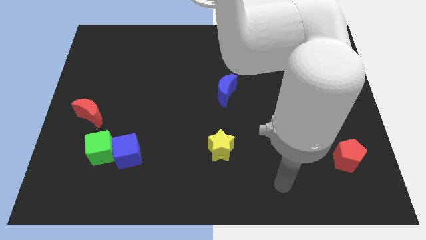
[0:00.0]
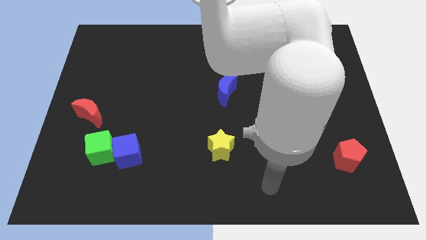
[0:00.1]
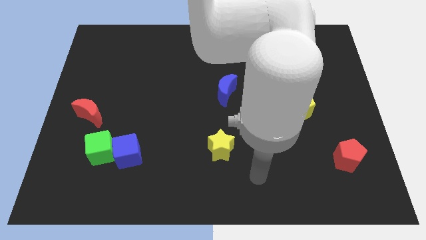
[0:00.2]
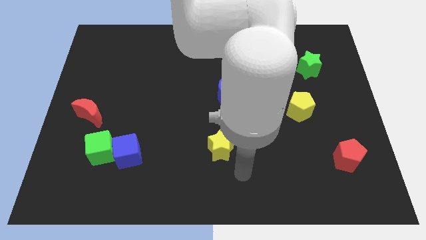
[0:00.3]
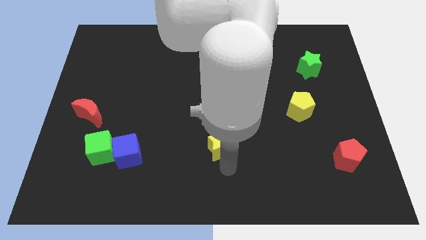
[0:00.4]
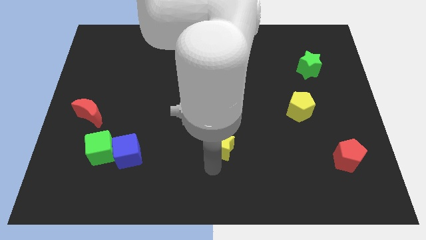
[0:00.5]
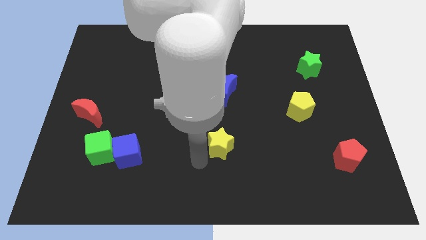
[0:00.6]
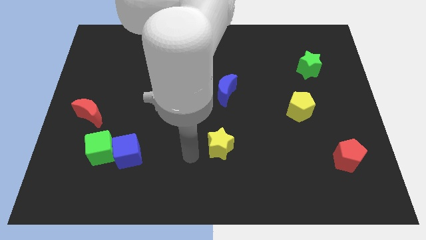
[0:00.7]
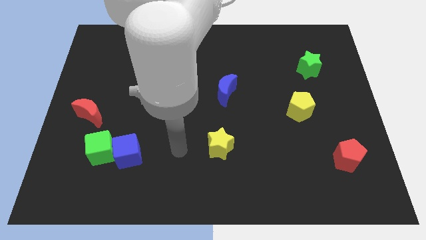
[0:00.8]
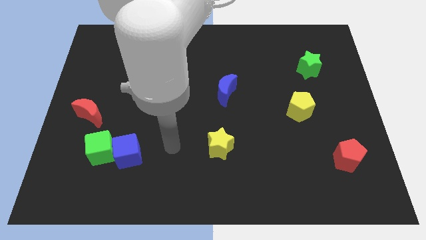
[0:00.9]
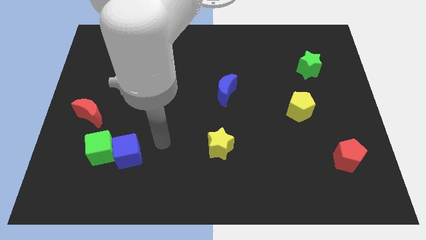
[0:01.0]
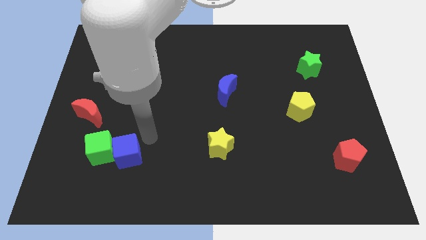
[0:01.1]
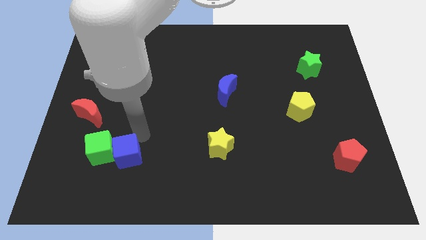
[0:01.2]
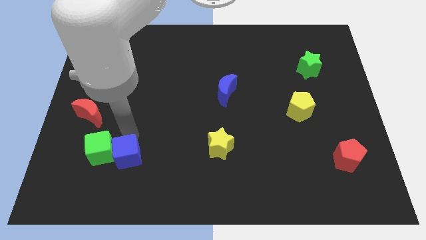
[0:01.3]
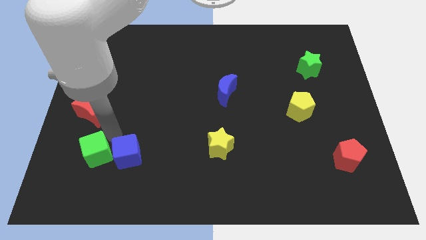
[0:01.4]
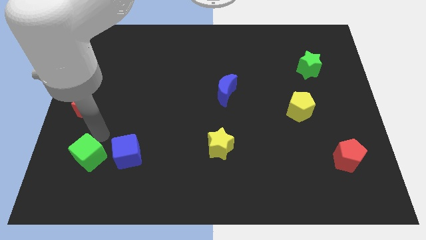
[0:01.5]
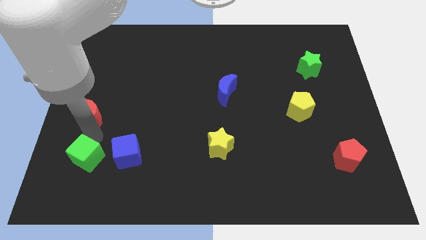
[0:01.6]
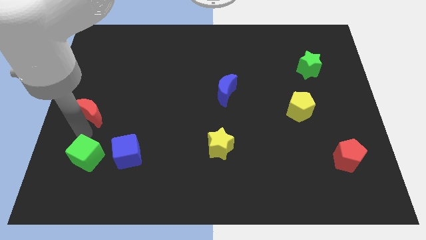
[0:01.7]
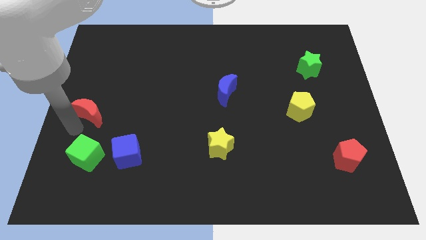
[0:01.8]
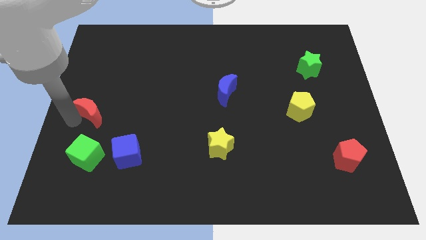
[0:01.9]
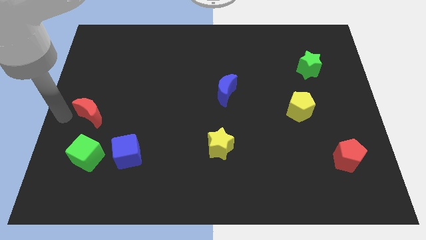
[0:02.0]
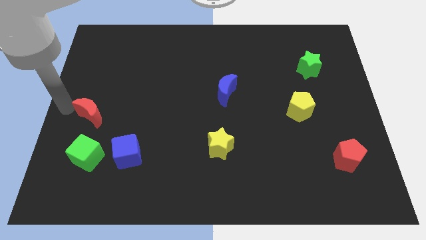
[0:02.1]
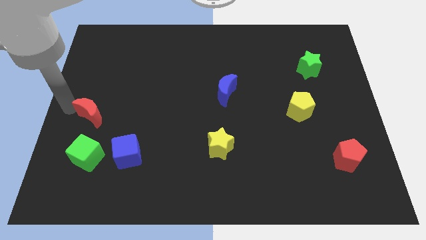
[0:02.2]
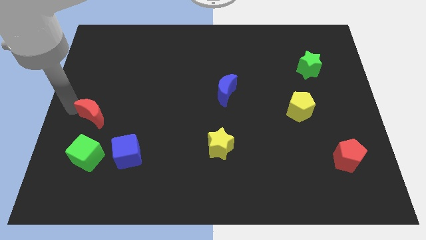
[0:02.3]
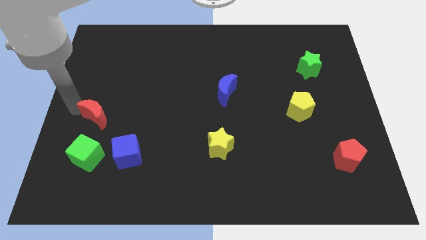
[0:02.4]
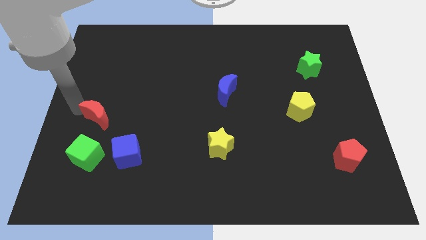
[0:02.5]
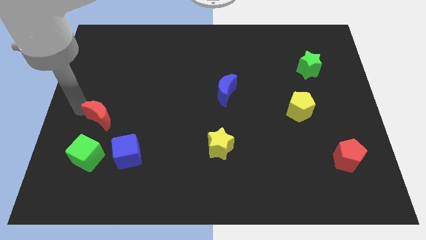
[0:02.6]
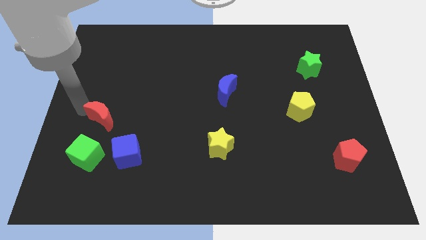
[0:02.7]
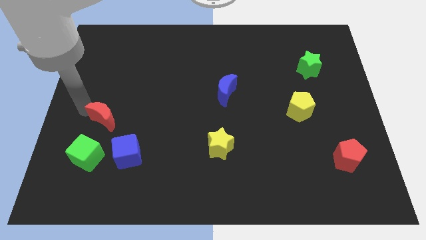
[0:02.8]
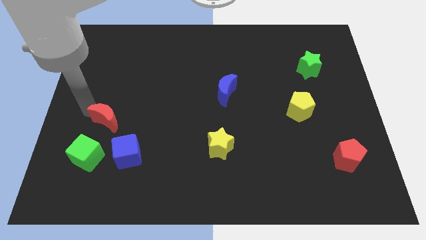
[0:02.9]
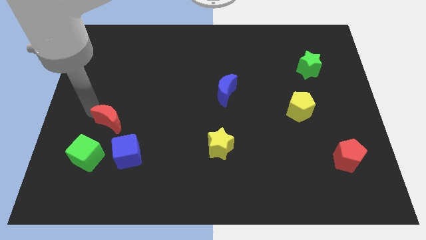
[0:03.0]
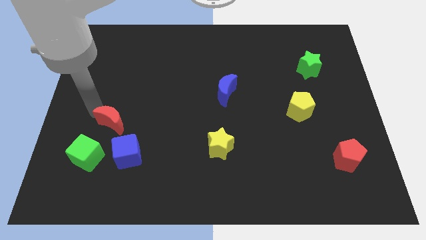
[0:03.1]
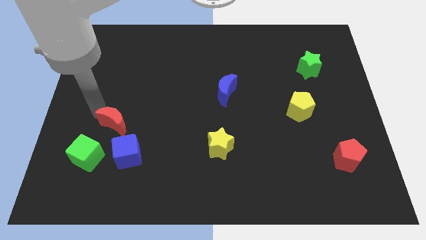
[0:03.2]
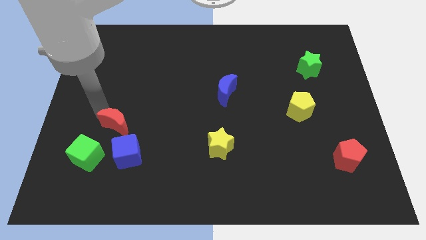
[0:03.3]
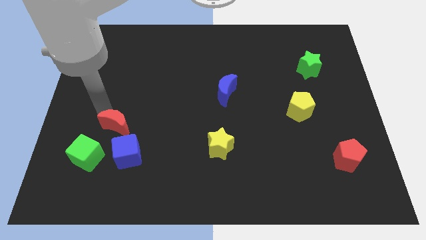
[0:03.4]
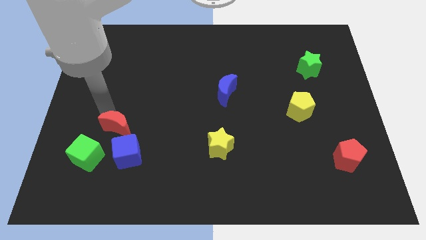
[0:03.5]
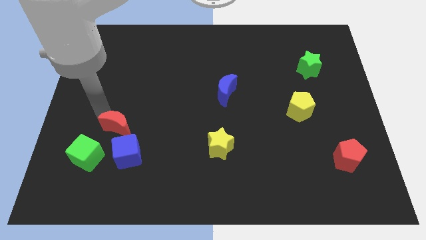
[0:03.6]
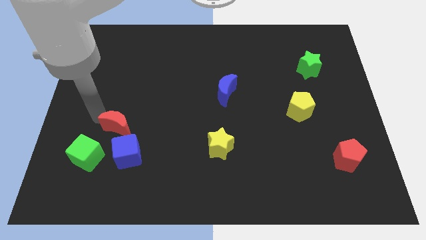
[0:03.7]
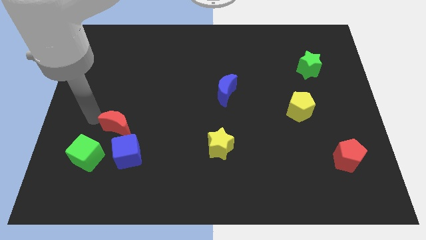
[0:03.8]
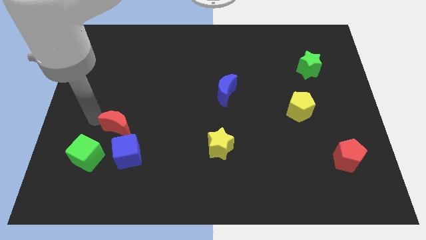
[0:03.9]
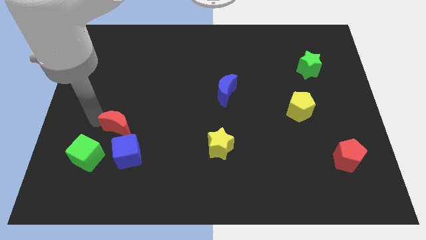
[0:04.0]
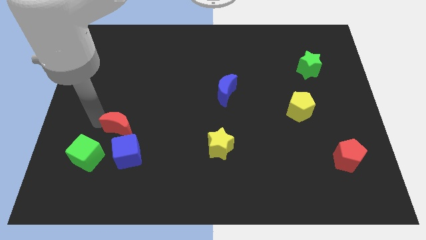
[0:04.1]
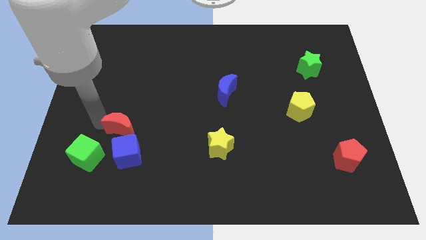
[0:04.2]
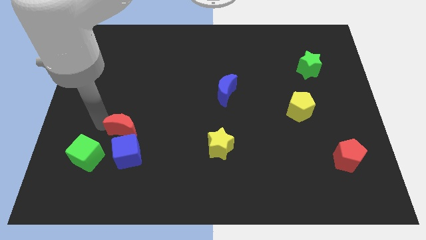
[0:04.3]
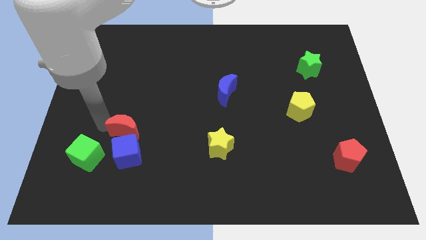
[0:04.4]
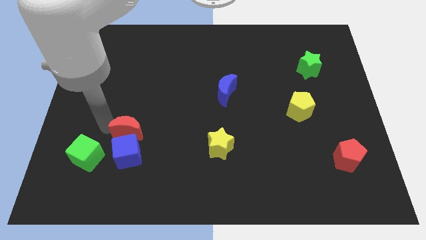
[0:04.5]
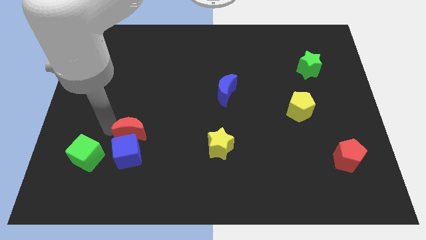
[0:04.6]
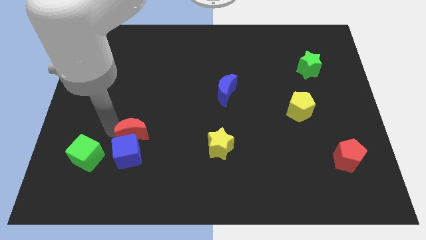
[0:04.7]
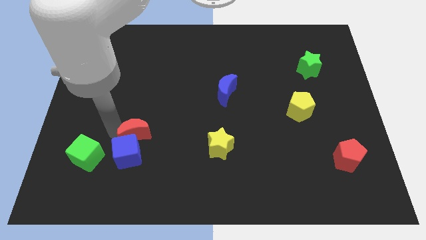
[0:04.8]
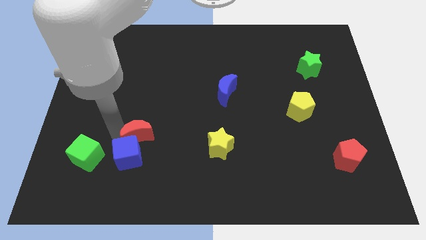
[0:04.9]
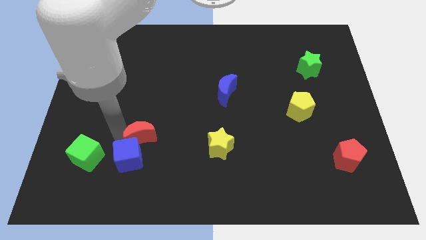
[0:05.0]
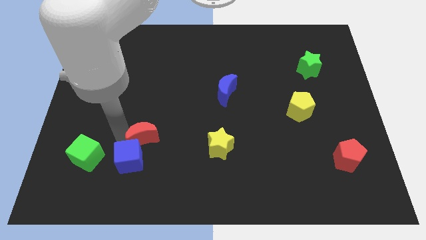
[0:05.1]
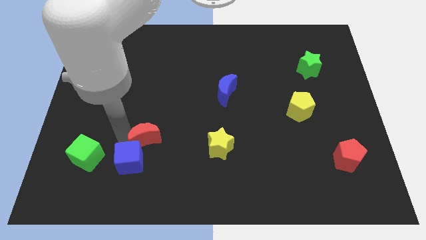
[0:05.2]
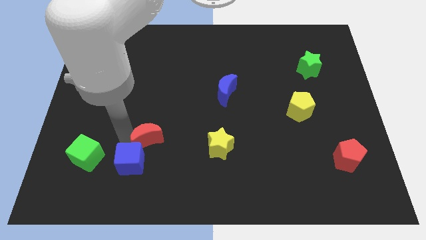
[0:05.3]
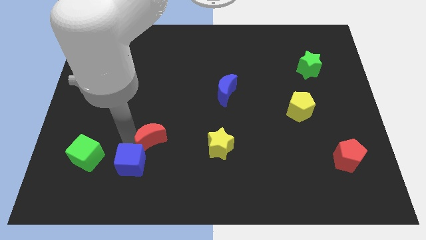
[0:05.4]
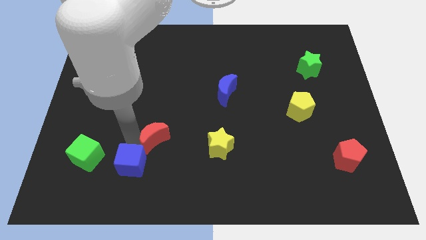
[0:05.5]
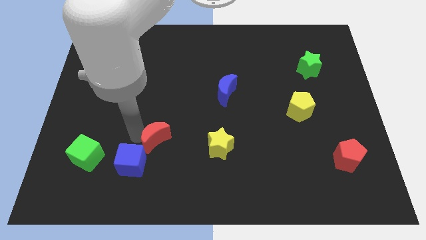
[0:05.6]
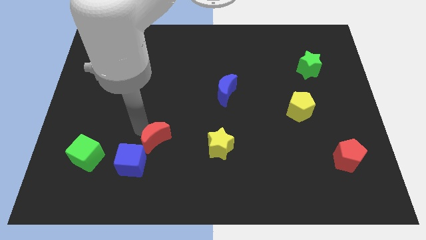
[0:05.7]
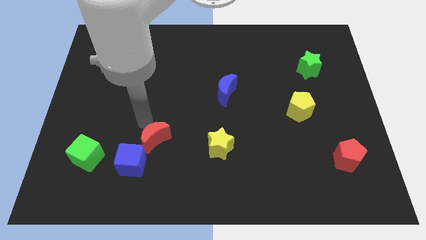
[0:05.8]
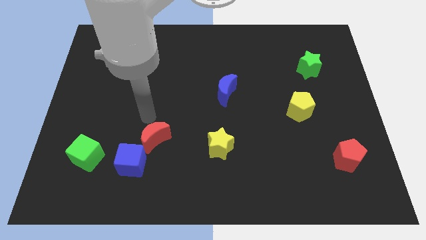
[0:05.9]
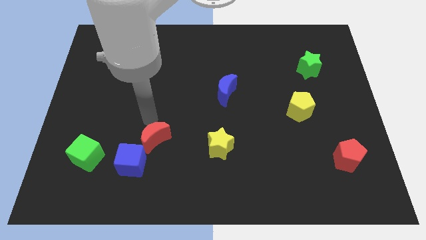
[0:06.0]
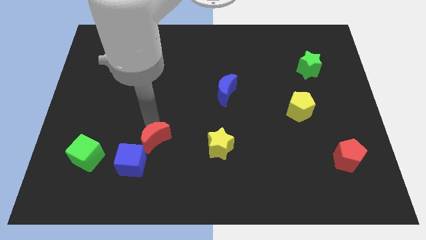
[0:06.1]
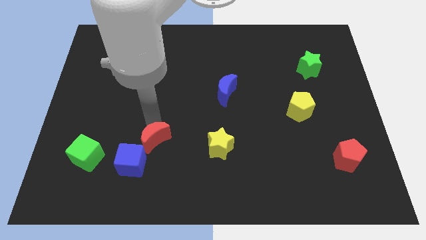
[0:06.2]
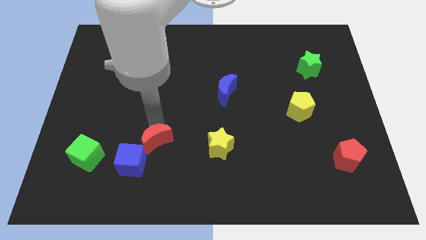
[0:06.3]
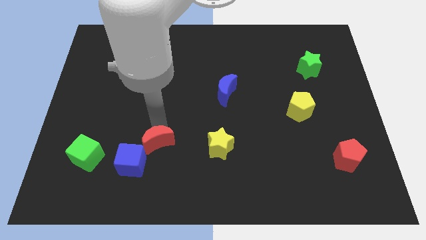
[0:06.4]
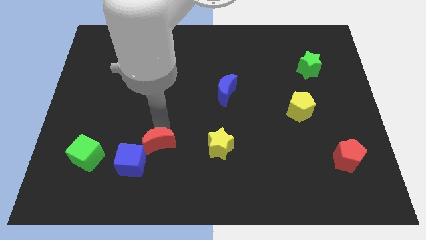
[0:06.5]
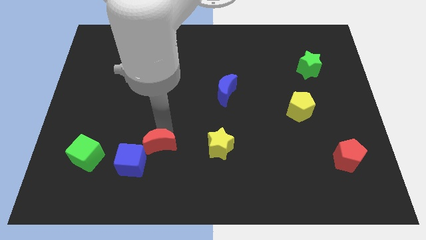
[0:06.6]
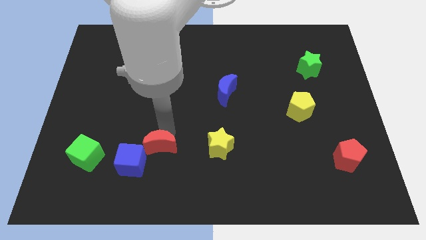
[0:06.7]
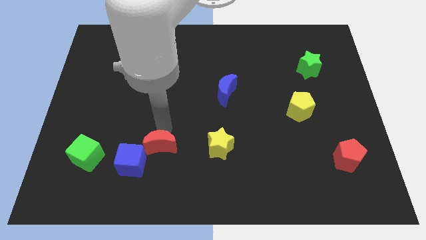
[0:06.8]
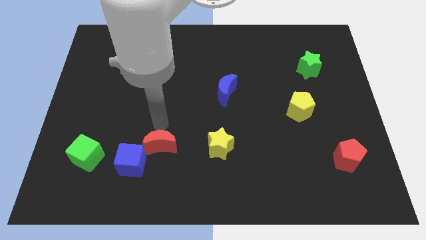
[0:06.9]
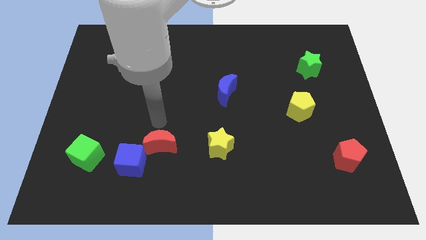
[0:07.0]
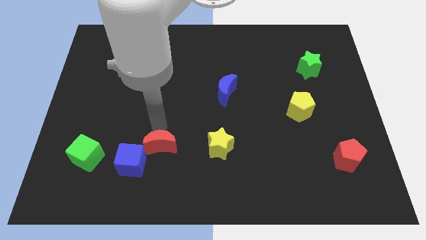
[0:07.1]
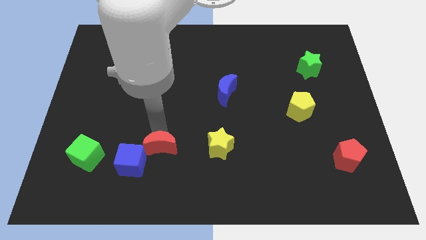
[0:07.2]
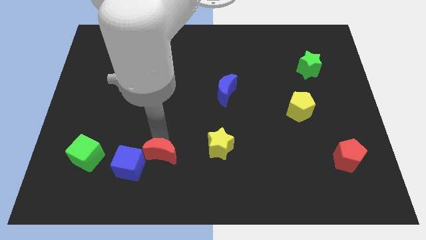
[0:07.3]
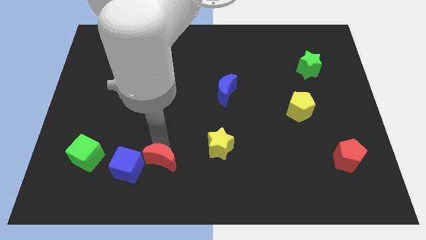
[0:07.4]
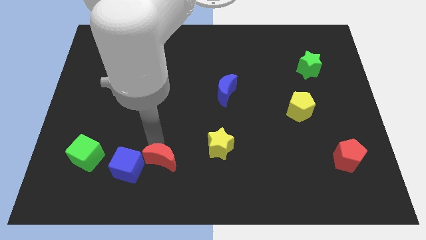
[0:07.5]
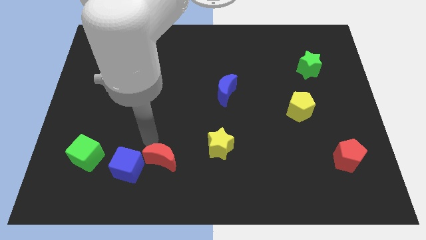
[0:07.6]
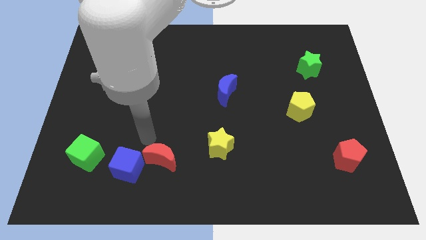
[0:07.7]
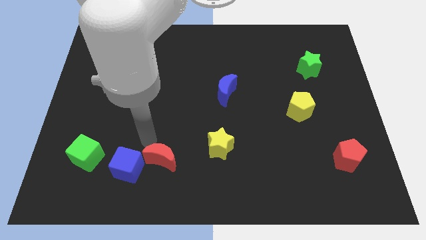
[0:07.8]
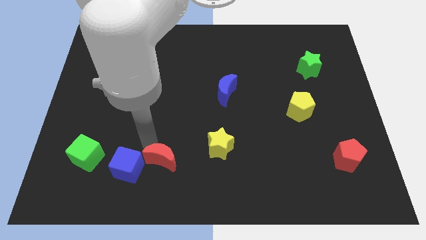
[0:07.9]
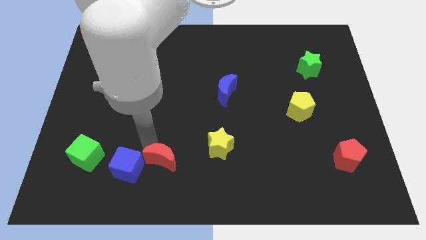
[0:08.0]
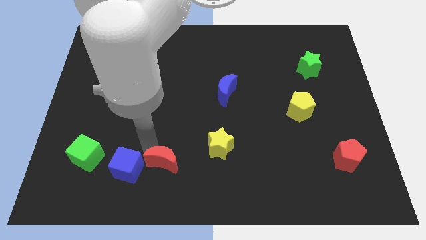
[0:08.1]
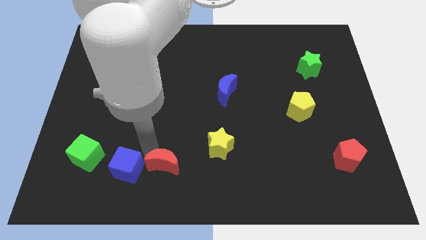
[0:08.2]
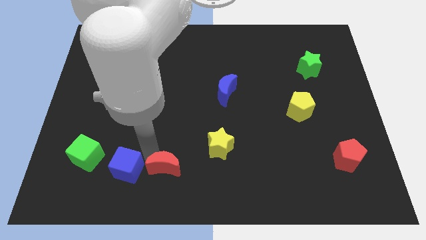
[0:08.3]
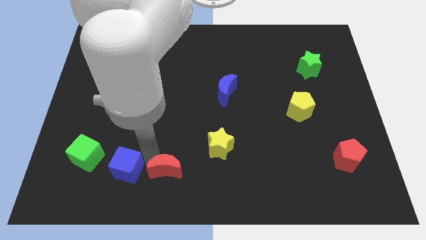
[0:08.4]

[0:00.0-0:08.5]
push the red moon to the bottom side
